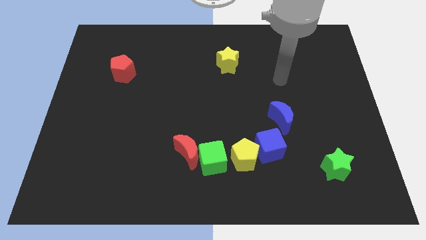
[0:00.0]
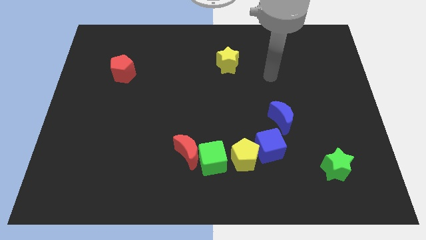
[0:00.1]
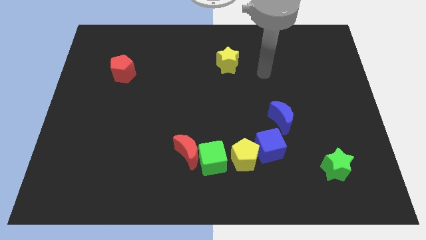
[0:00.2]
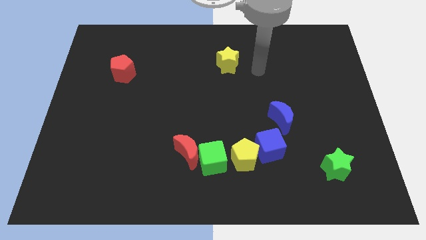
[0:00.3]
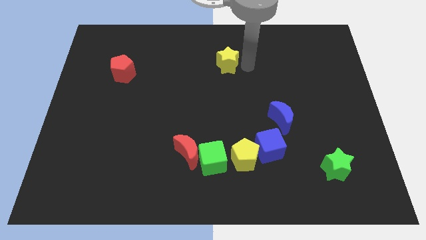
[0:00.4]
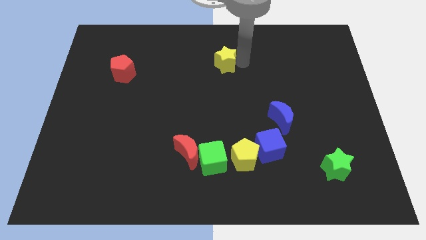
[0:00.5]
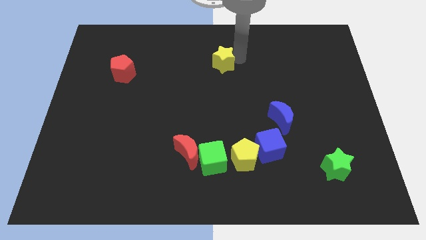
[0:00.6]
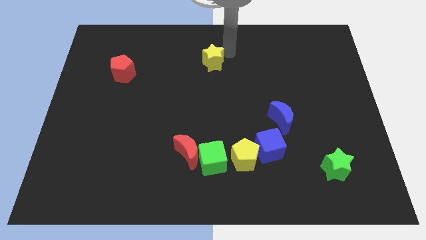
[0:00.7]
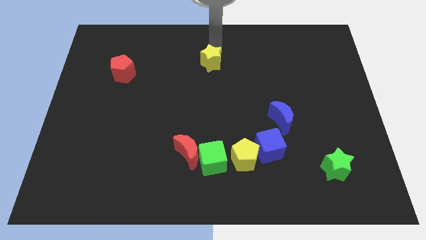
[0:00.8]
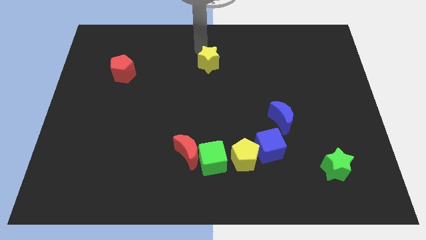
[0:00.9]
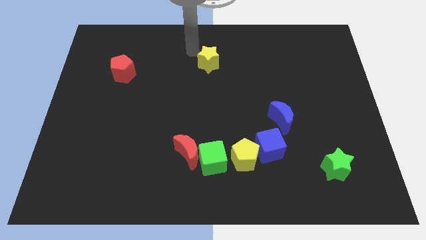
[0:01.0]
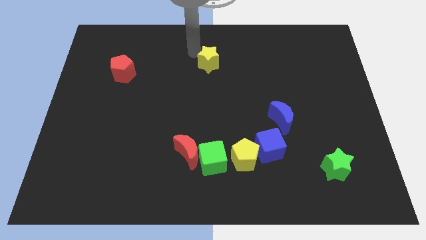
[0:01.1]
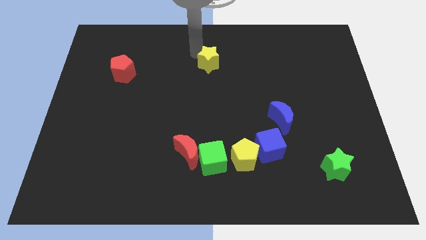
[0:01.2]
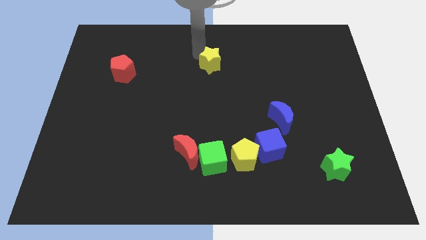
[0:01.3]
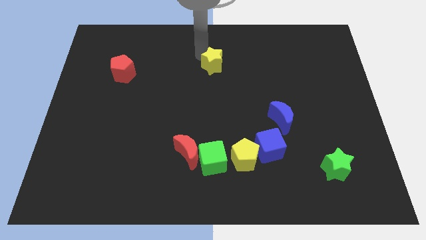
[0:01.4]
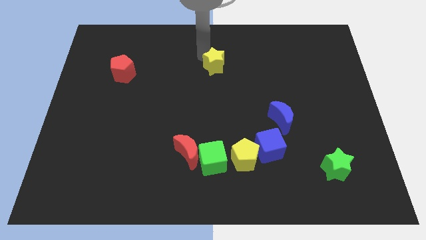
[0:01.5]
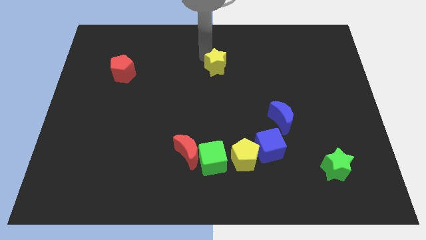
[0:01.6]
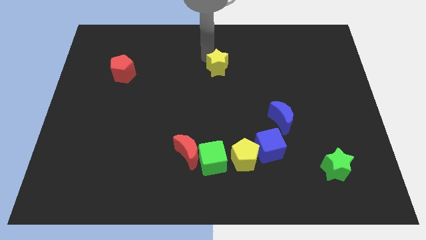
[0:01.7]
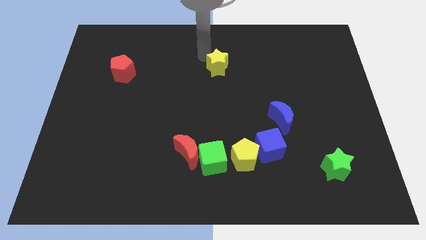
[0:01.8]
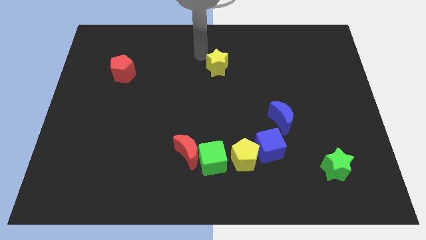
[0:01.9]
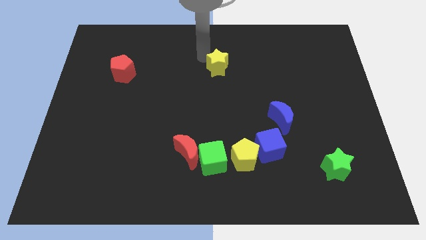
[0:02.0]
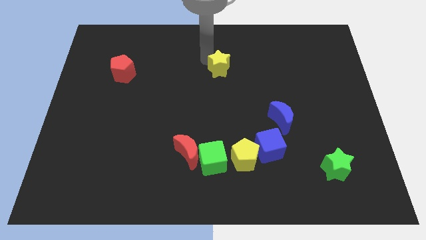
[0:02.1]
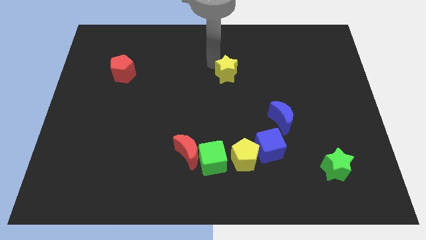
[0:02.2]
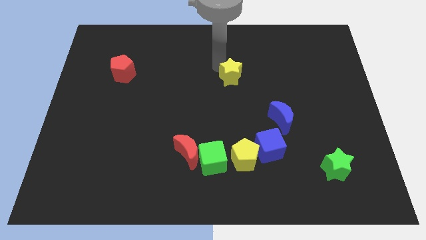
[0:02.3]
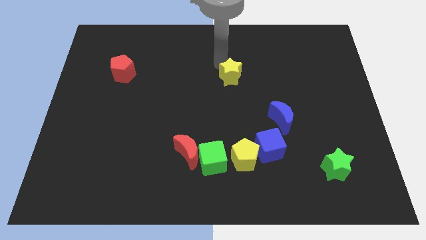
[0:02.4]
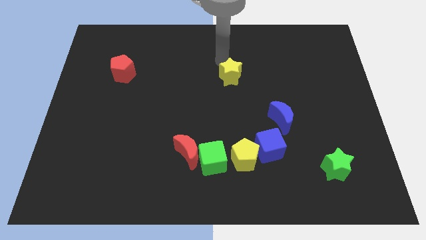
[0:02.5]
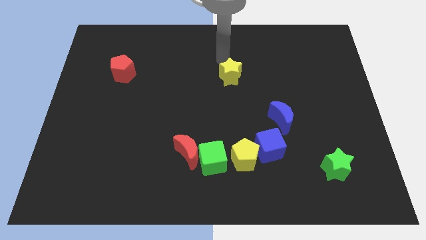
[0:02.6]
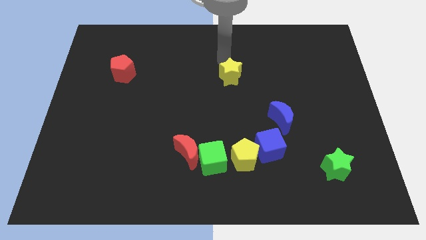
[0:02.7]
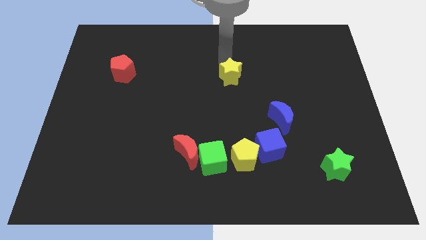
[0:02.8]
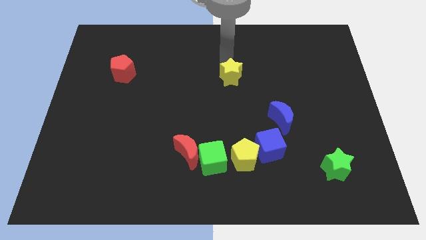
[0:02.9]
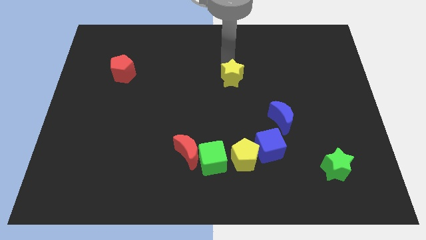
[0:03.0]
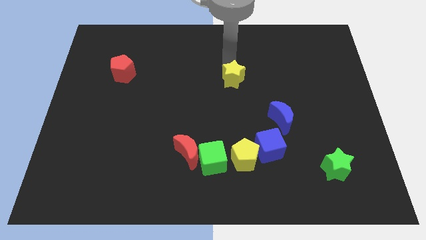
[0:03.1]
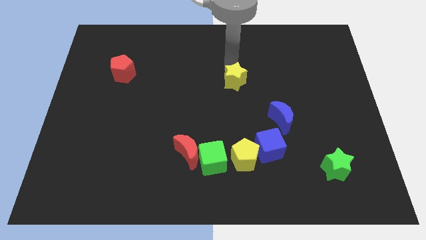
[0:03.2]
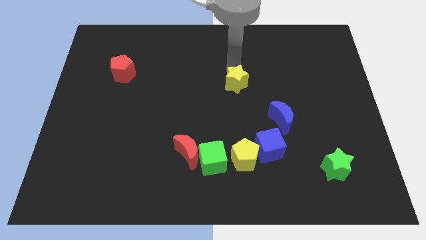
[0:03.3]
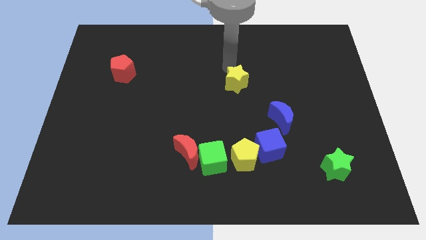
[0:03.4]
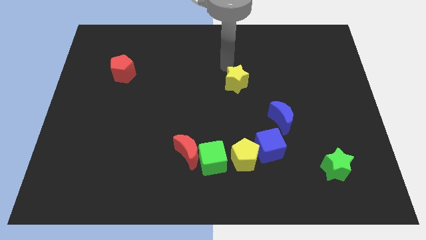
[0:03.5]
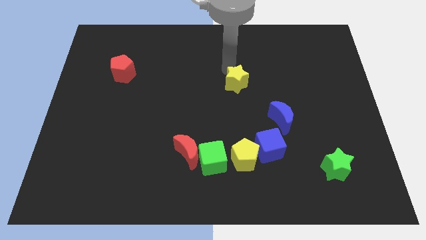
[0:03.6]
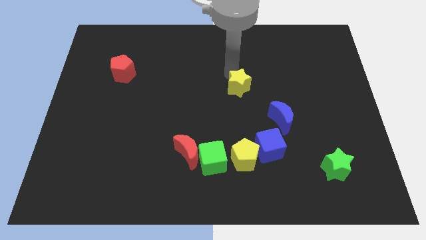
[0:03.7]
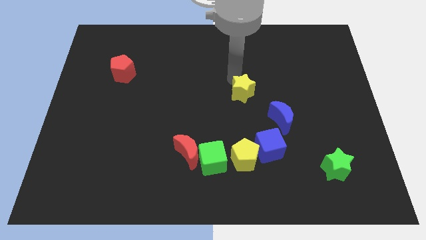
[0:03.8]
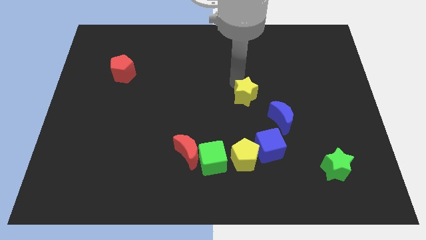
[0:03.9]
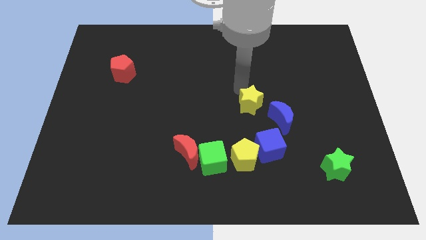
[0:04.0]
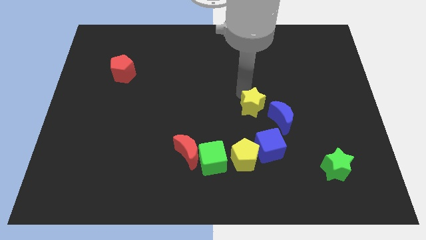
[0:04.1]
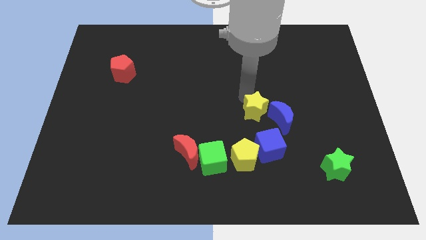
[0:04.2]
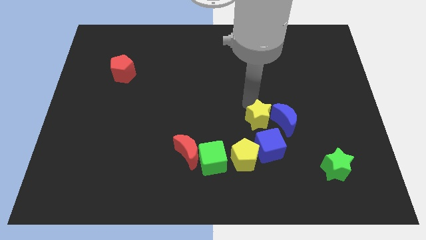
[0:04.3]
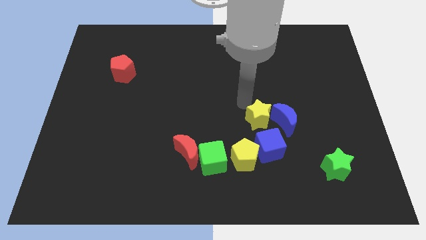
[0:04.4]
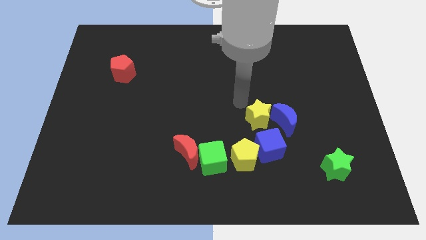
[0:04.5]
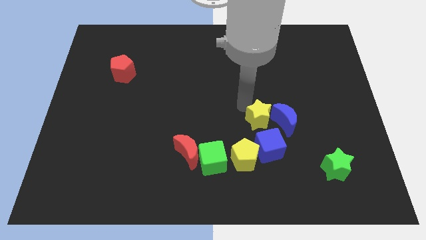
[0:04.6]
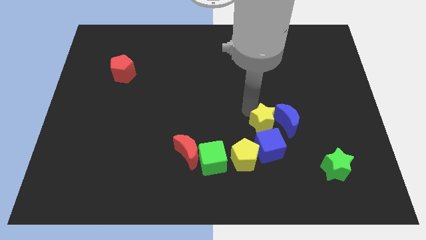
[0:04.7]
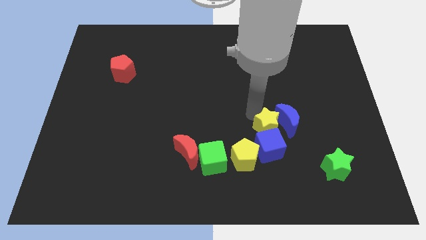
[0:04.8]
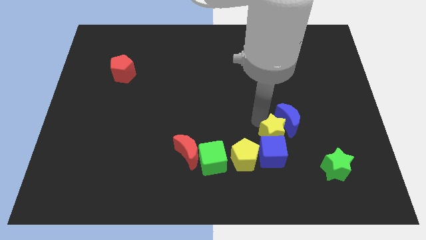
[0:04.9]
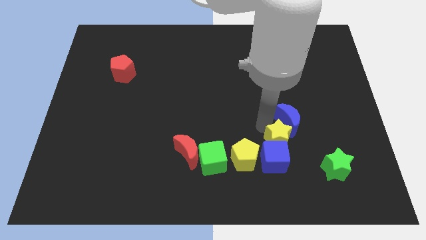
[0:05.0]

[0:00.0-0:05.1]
put the yellow star right of the yellow pentagon

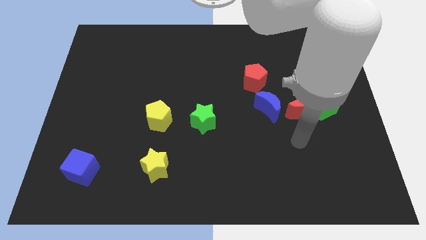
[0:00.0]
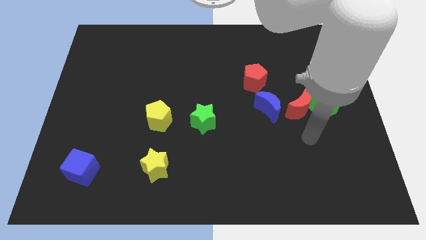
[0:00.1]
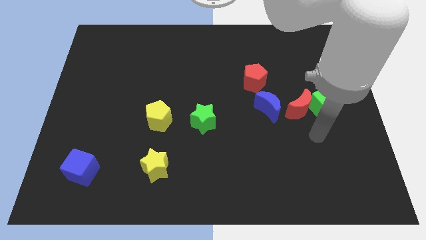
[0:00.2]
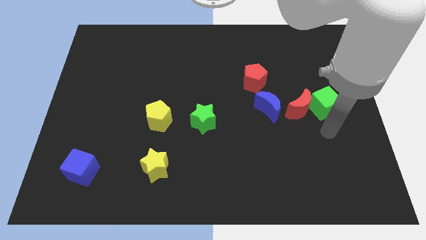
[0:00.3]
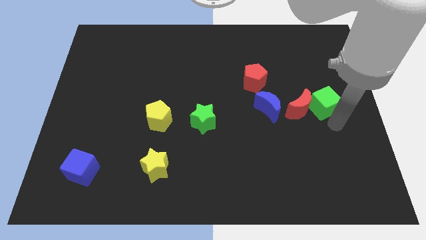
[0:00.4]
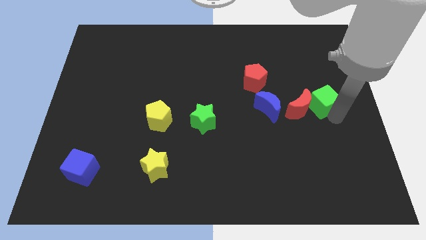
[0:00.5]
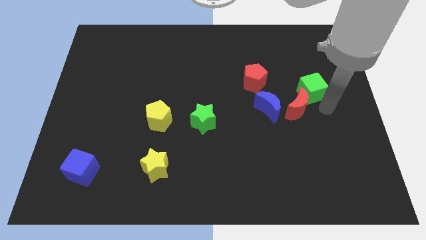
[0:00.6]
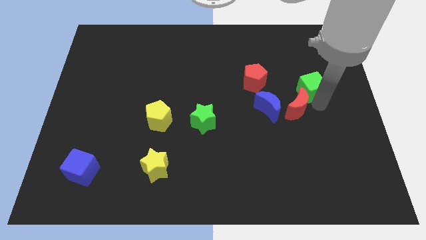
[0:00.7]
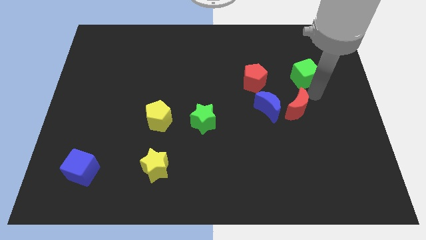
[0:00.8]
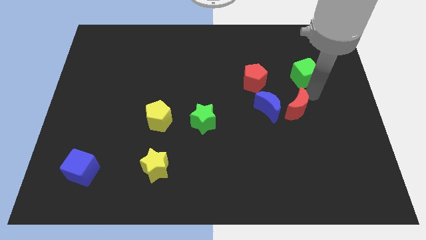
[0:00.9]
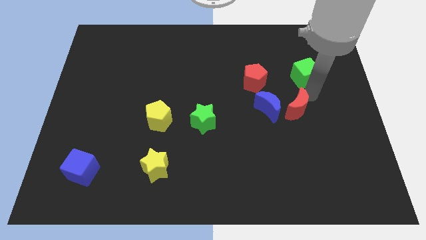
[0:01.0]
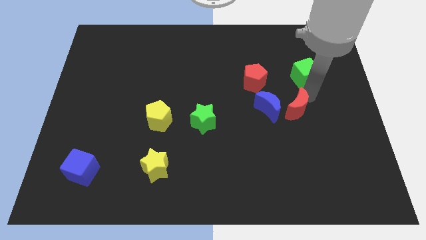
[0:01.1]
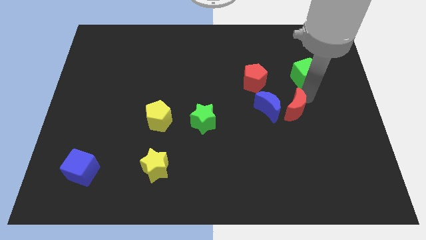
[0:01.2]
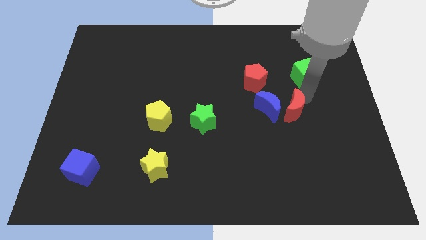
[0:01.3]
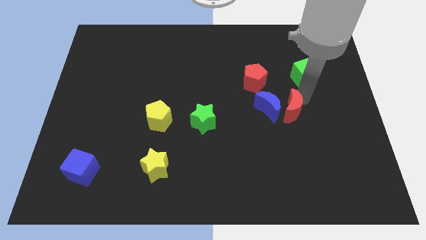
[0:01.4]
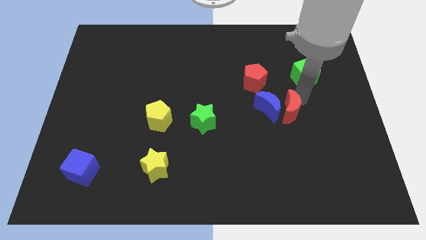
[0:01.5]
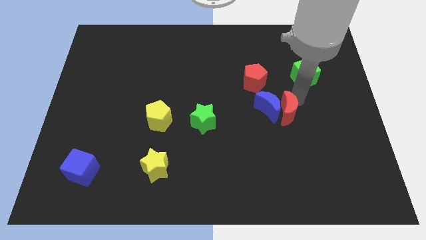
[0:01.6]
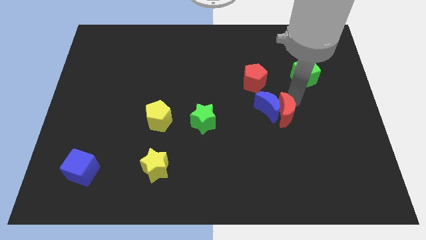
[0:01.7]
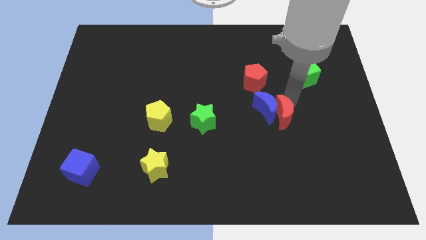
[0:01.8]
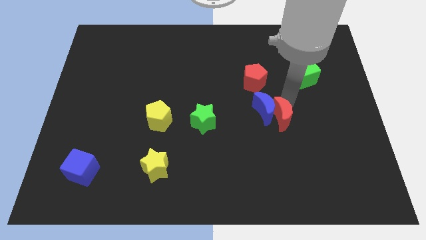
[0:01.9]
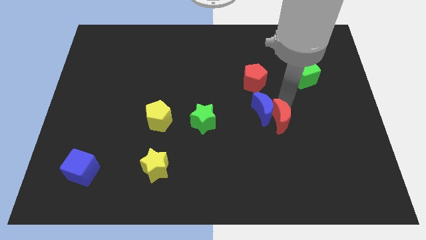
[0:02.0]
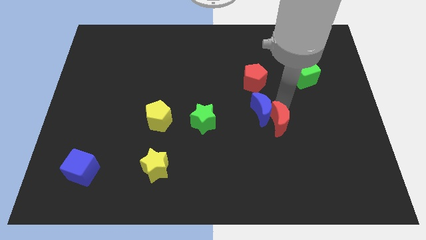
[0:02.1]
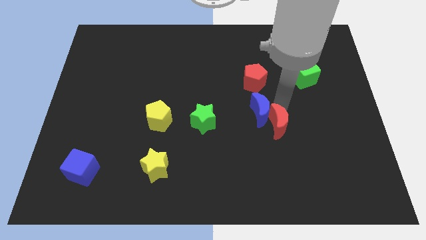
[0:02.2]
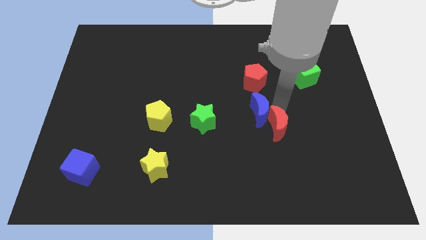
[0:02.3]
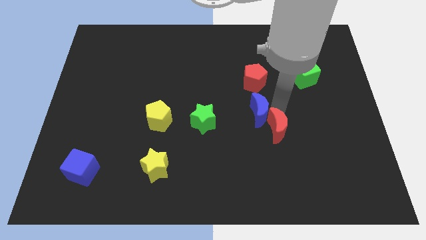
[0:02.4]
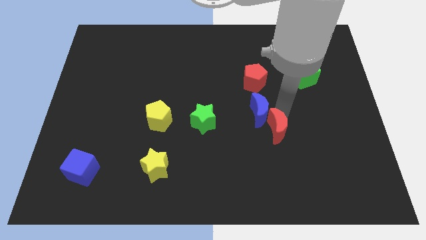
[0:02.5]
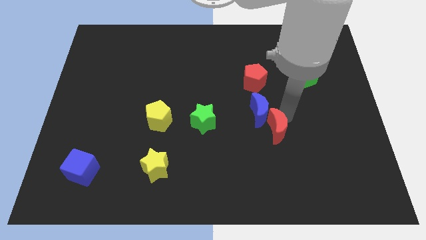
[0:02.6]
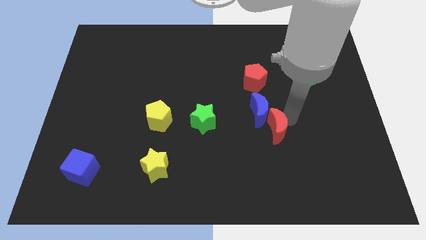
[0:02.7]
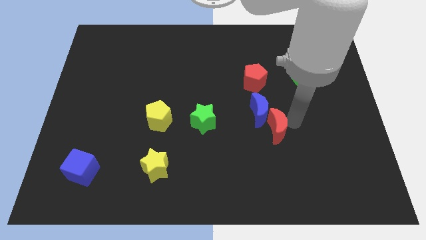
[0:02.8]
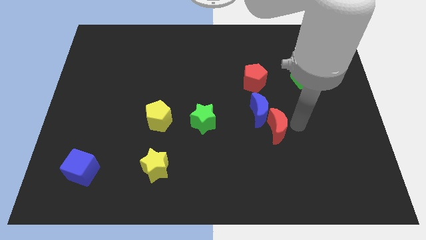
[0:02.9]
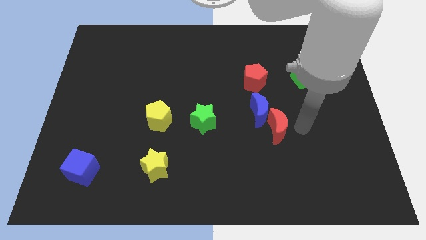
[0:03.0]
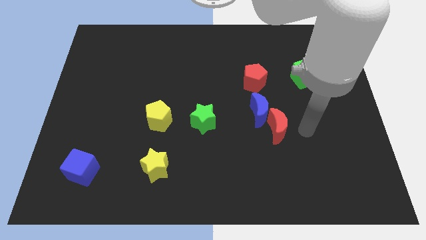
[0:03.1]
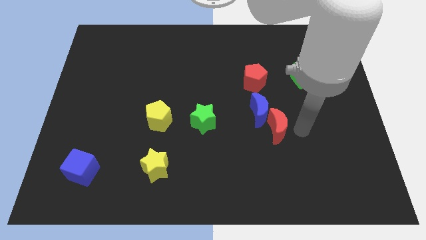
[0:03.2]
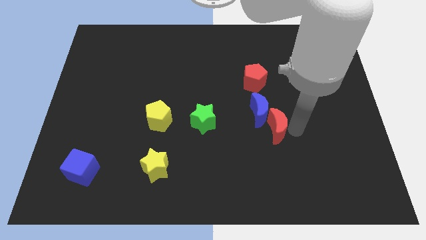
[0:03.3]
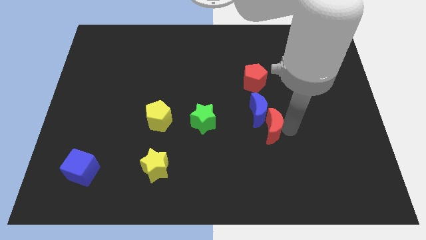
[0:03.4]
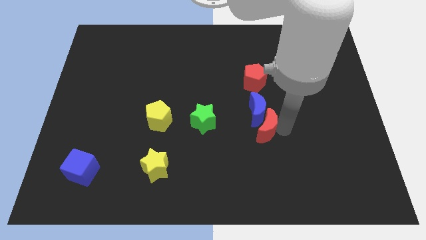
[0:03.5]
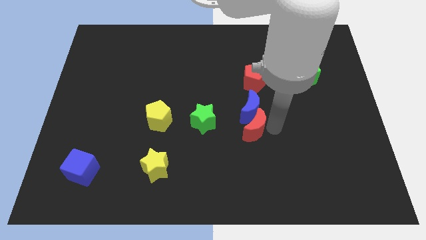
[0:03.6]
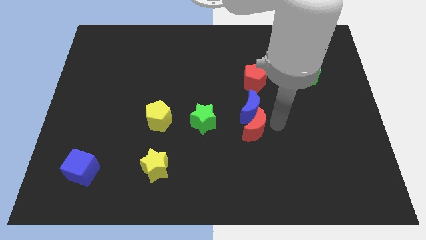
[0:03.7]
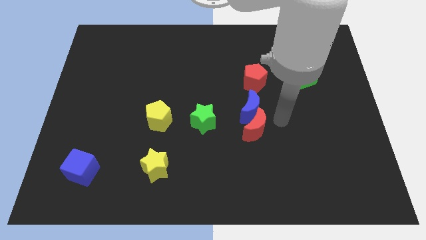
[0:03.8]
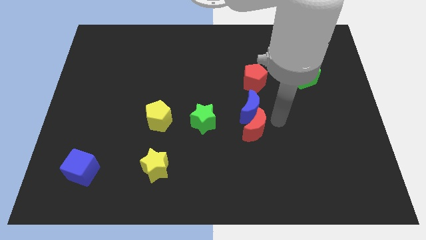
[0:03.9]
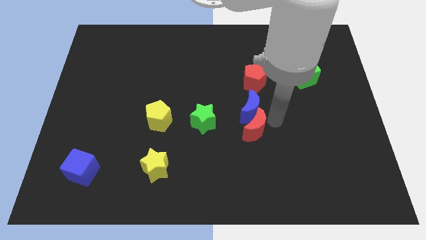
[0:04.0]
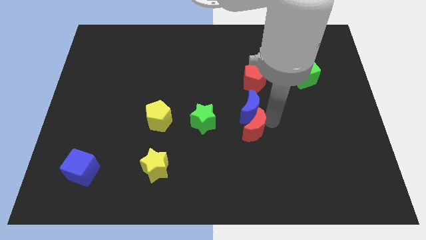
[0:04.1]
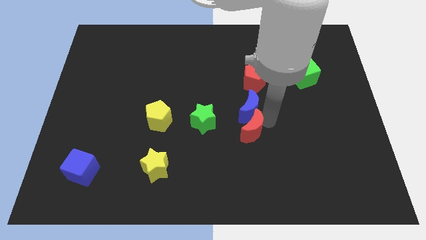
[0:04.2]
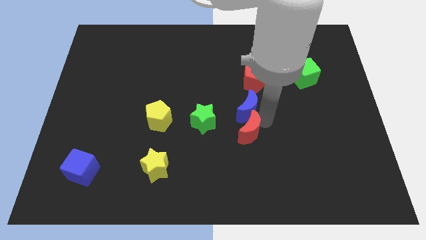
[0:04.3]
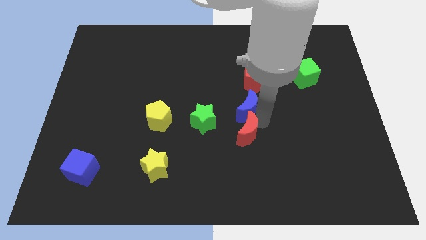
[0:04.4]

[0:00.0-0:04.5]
put the red moon to the bottom right side of the green star
